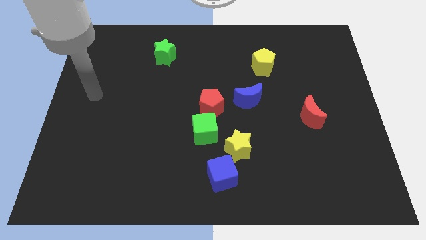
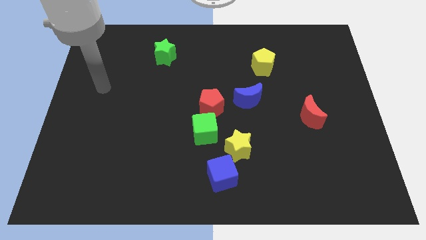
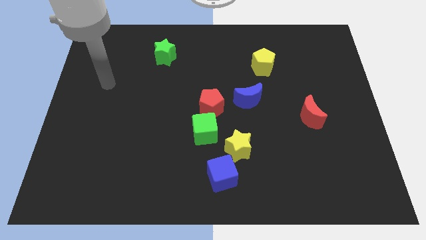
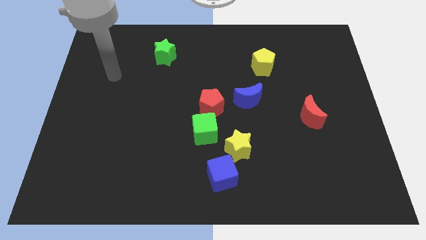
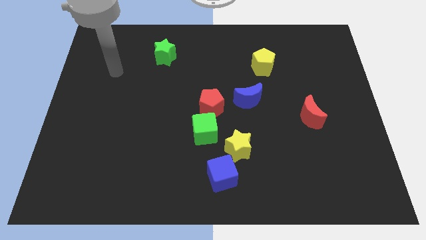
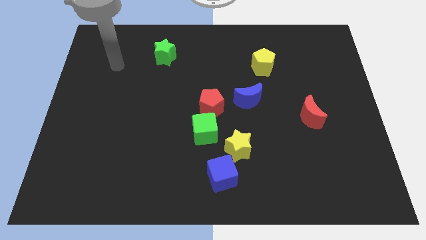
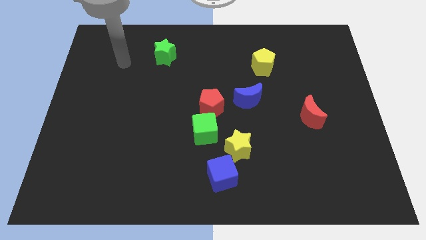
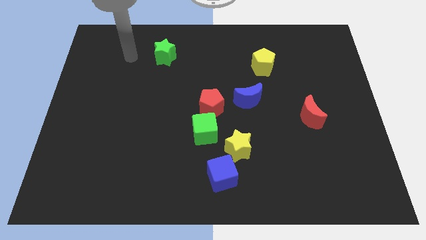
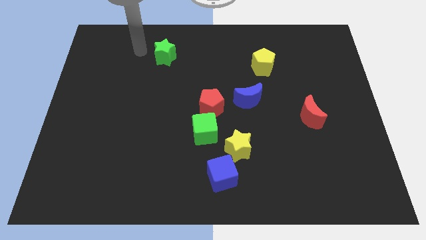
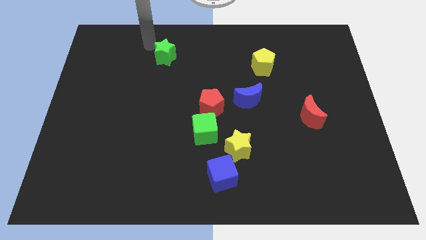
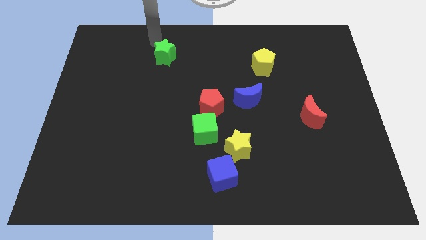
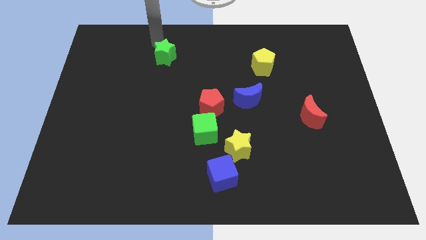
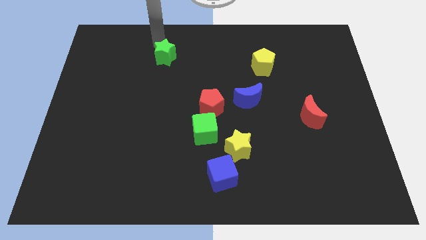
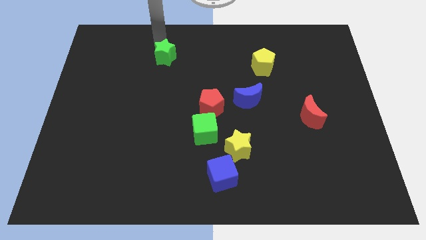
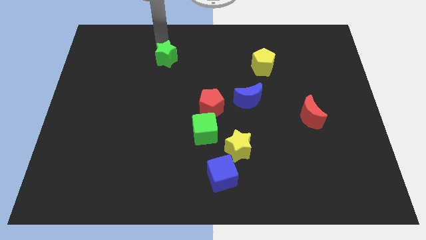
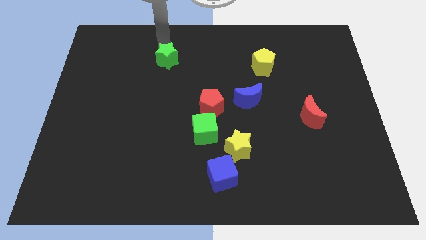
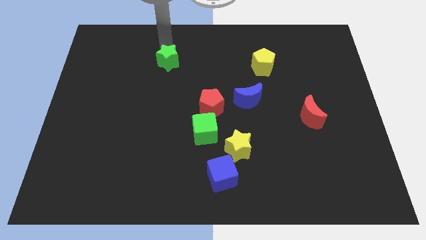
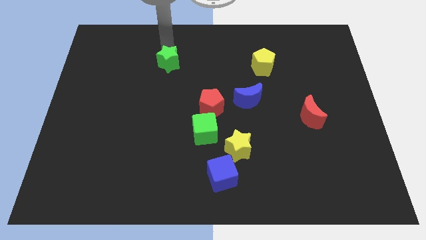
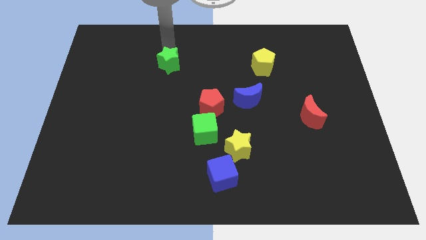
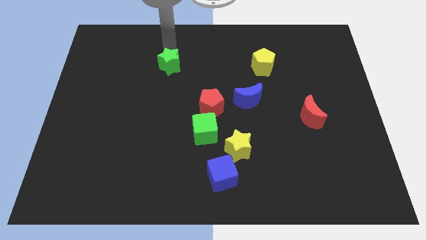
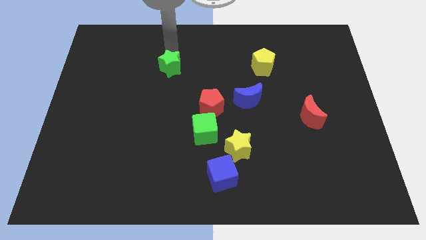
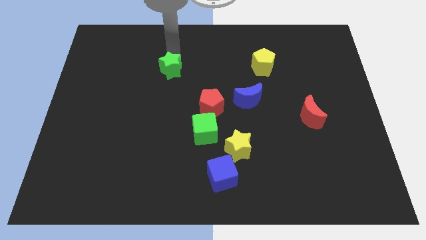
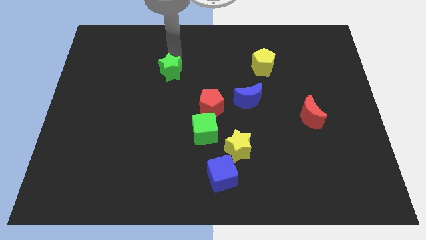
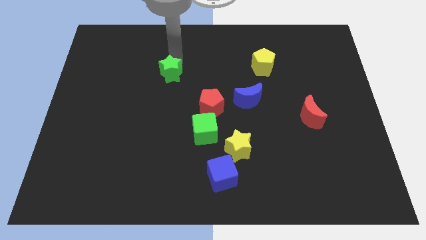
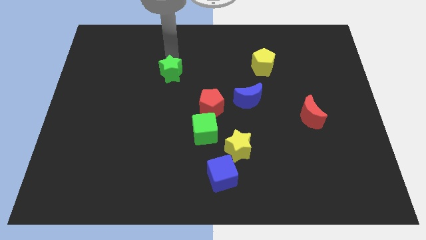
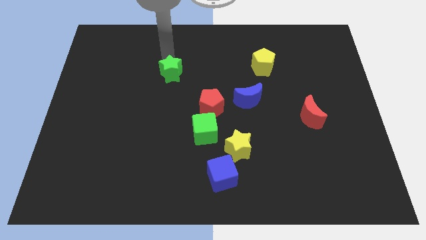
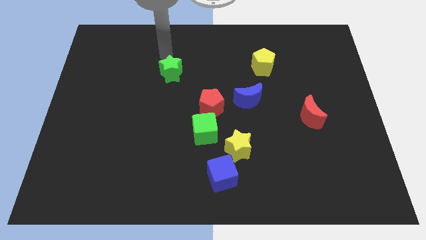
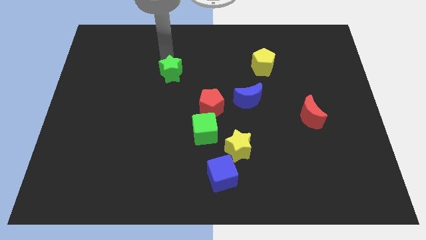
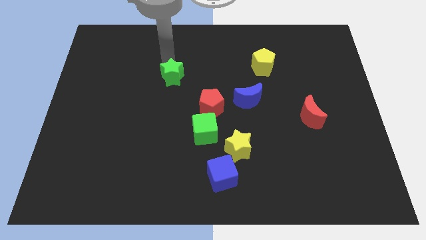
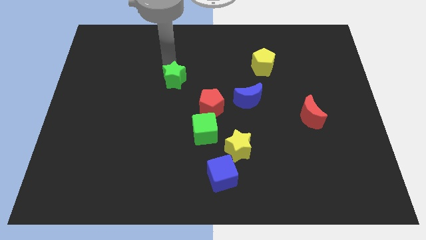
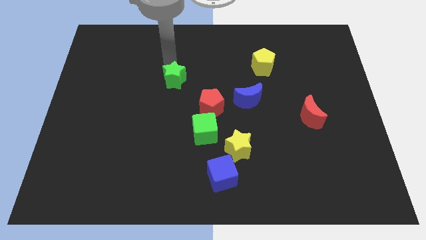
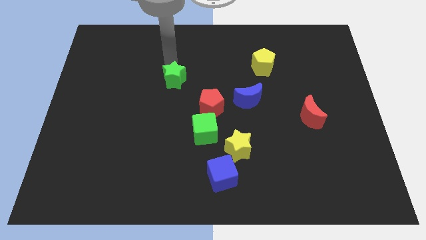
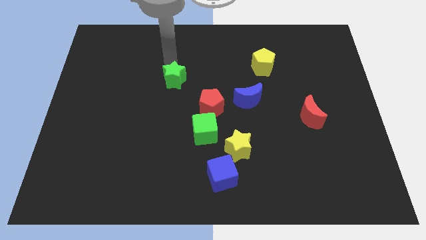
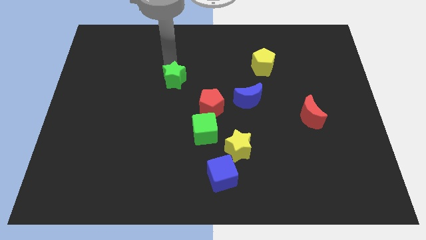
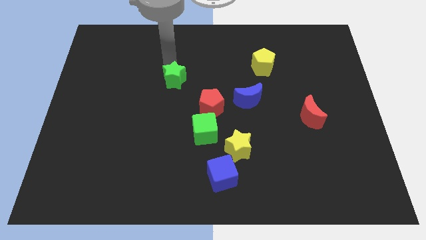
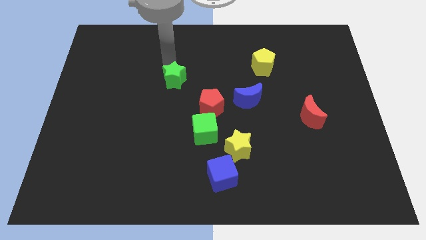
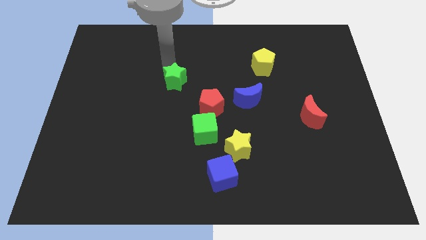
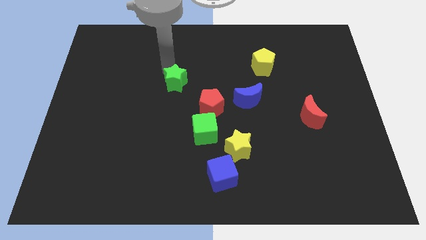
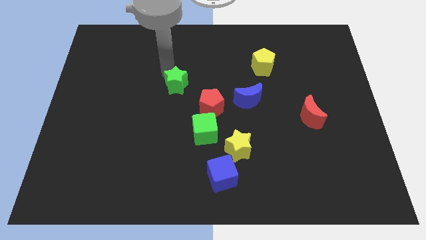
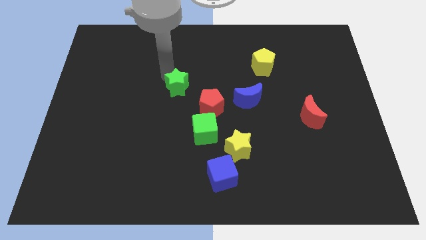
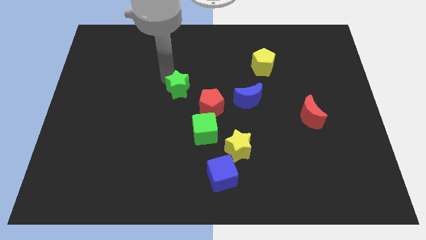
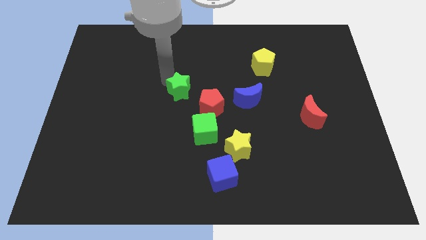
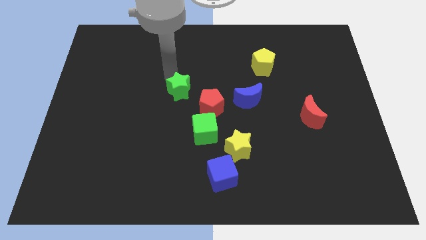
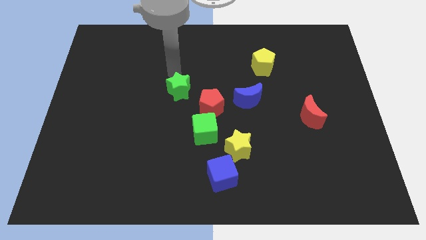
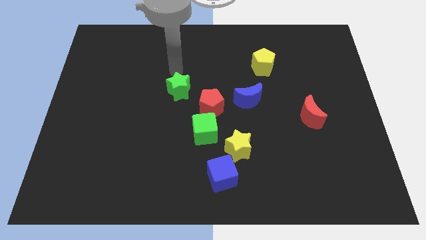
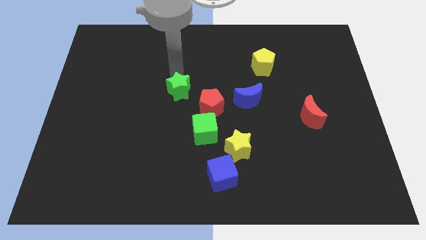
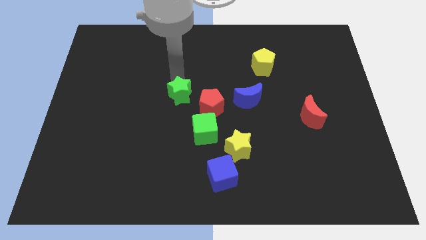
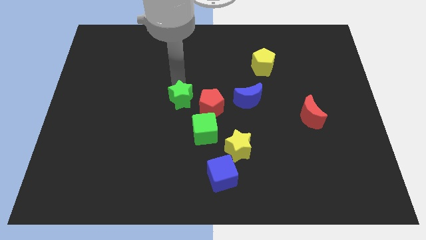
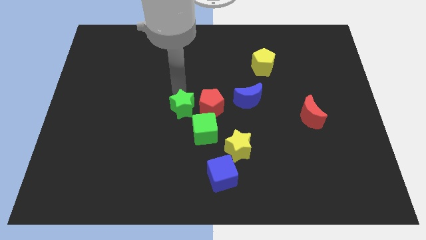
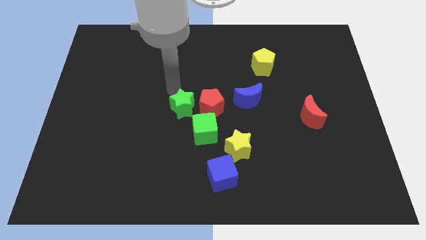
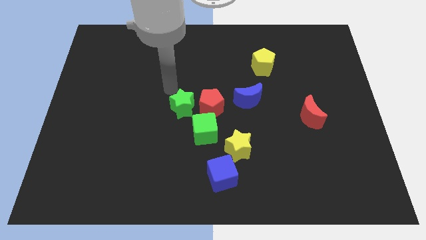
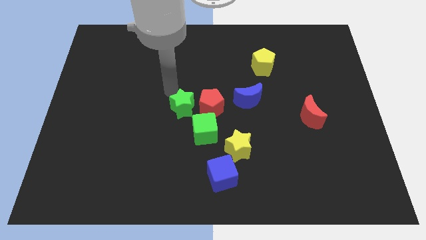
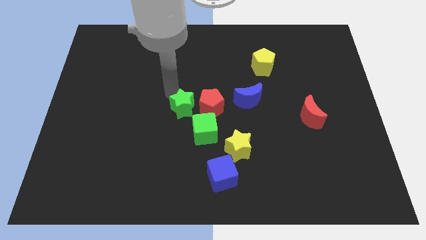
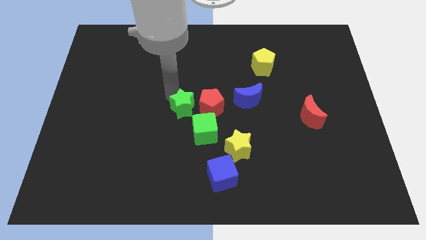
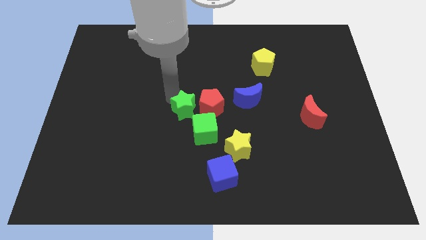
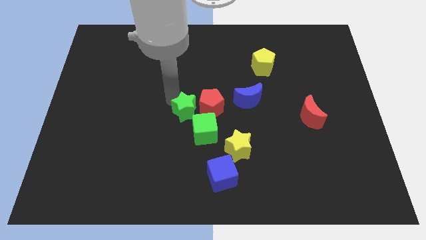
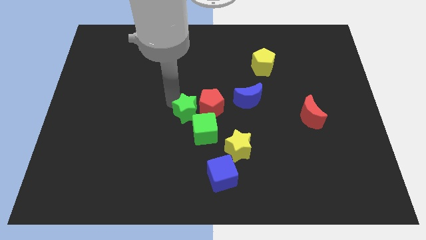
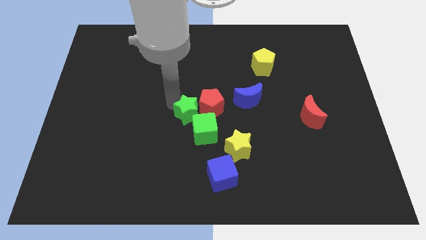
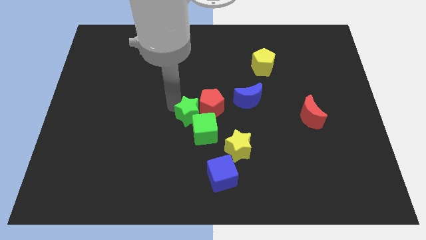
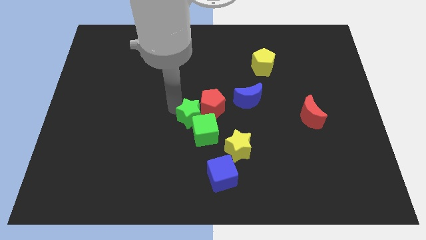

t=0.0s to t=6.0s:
slide the green star close to the green cube

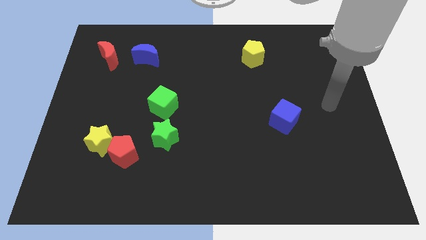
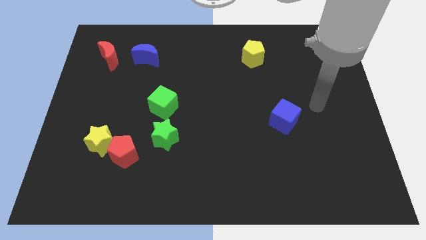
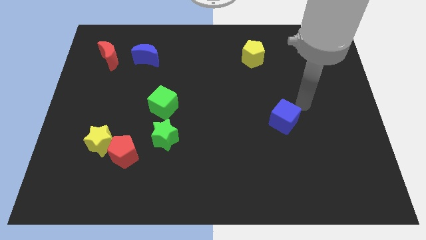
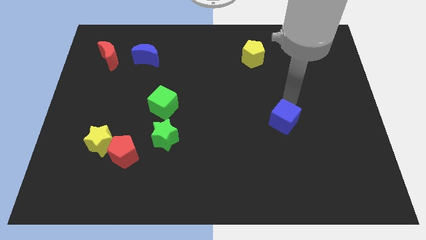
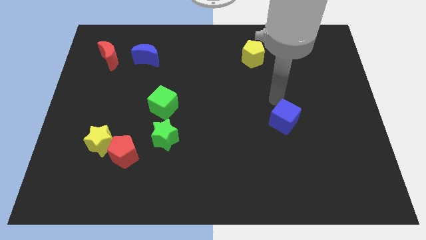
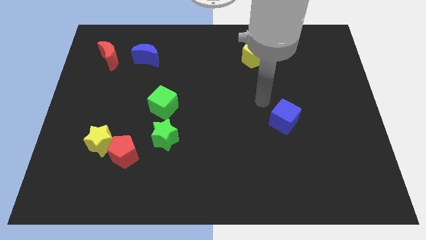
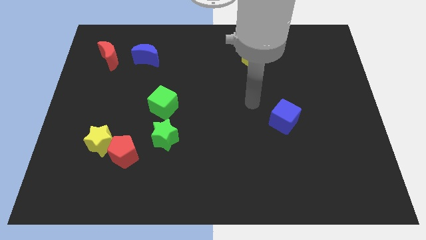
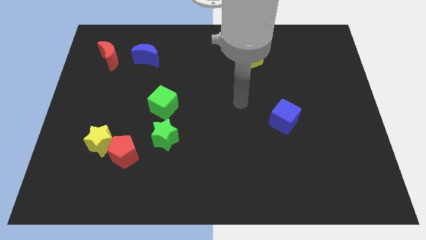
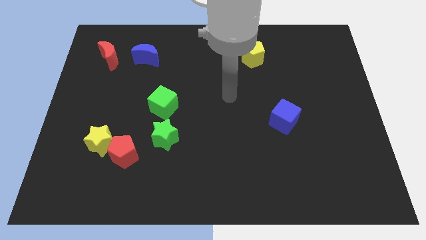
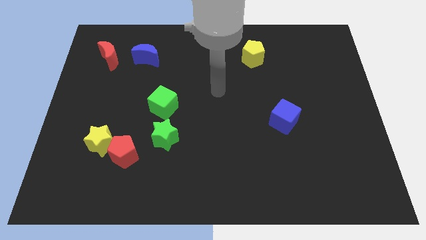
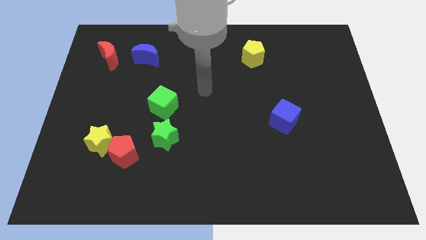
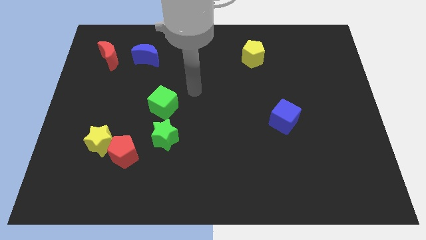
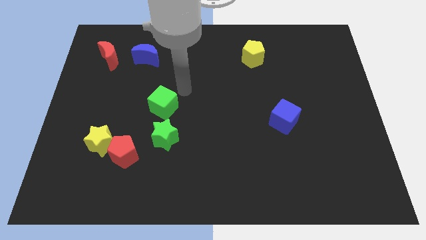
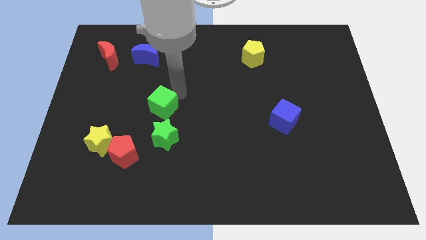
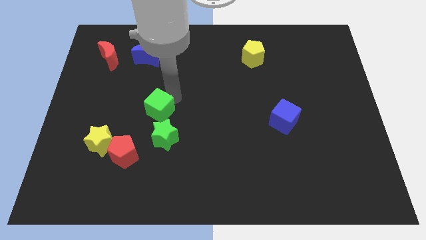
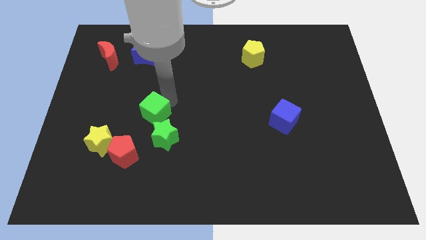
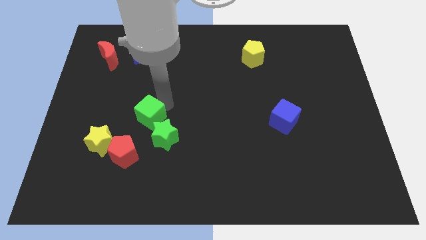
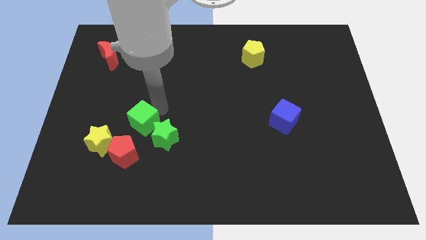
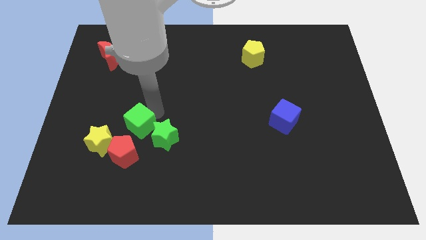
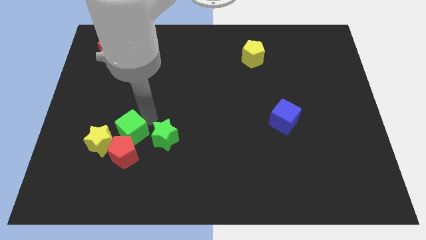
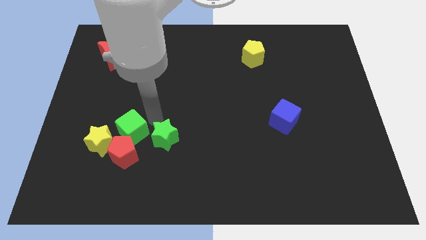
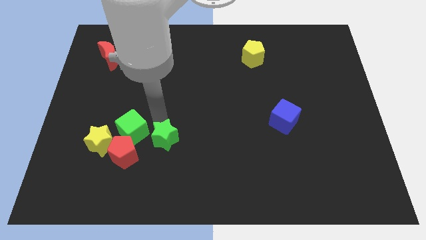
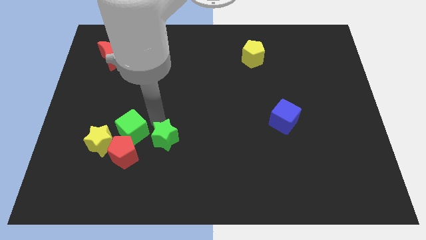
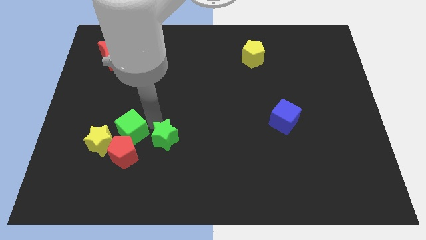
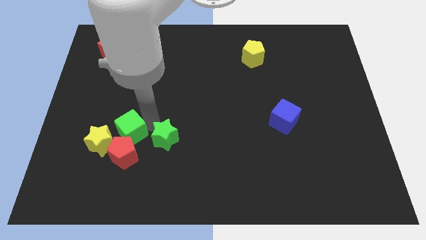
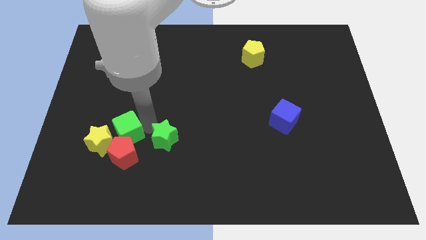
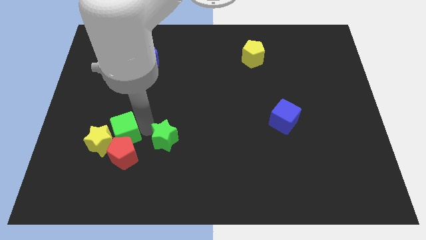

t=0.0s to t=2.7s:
move the green cube to the yellow star
